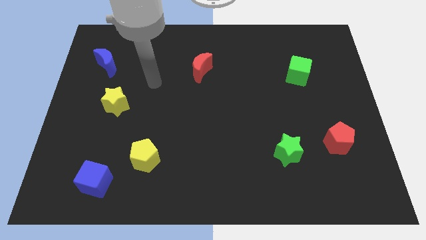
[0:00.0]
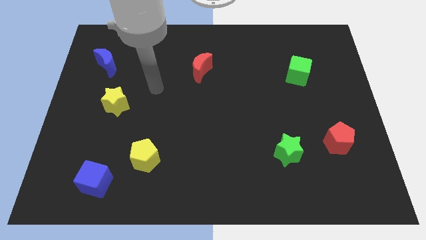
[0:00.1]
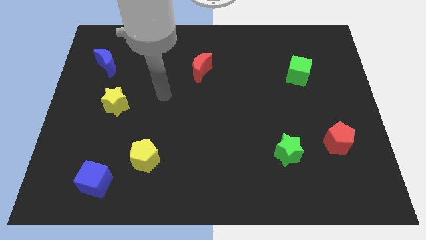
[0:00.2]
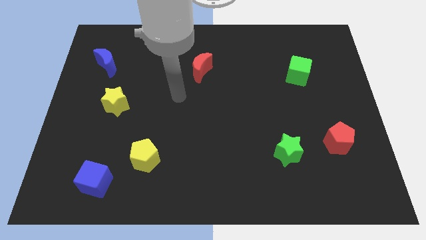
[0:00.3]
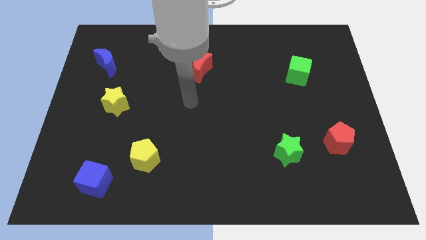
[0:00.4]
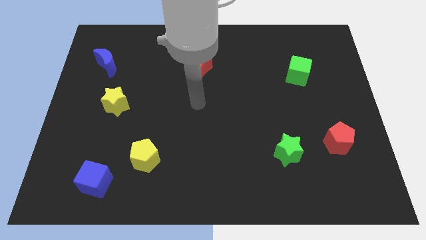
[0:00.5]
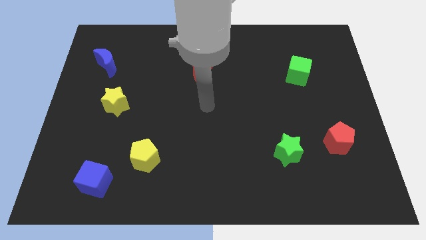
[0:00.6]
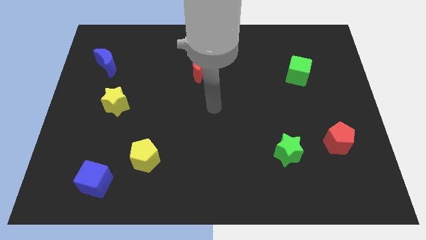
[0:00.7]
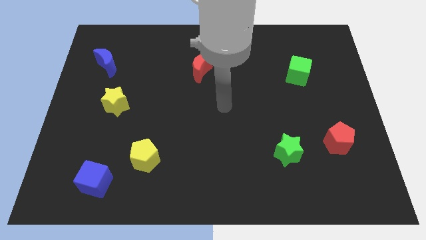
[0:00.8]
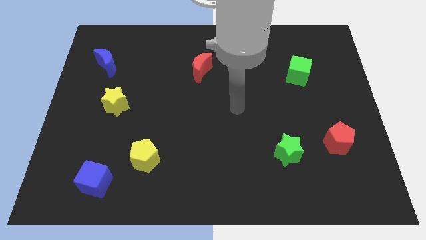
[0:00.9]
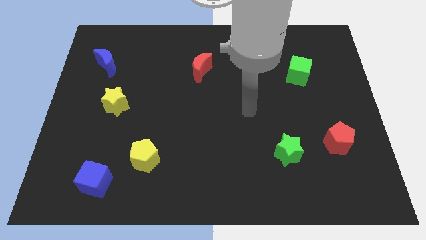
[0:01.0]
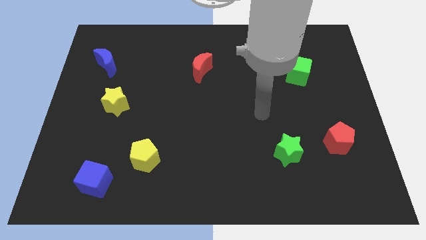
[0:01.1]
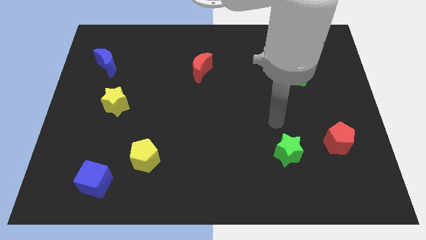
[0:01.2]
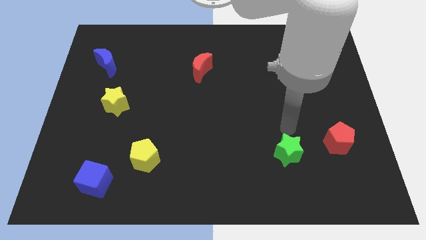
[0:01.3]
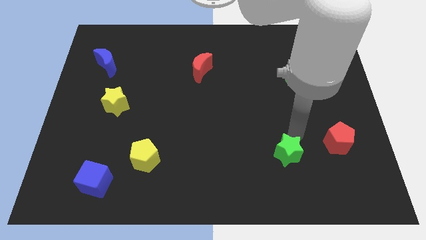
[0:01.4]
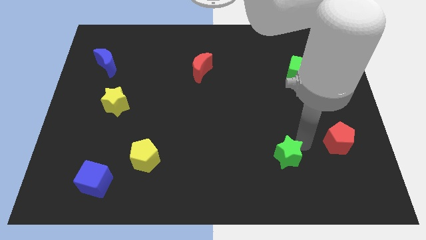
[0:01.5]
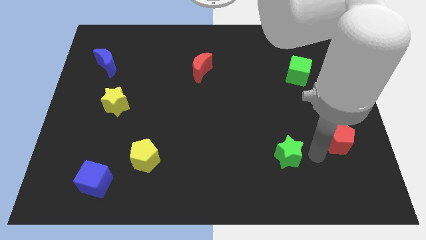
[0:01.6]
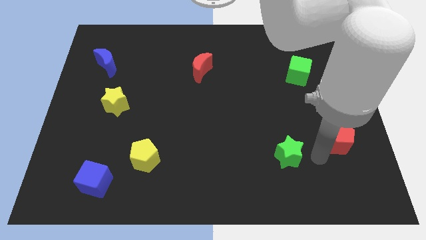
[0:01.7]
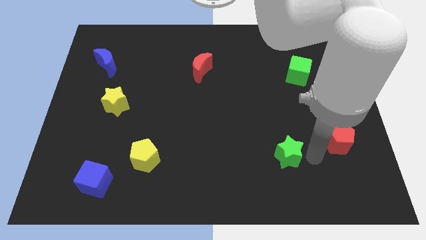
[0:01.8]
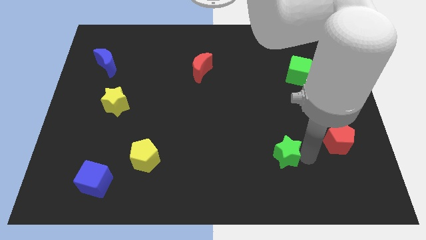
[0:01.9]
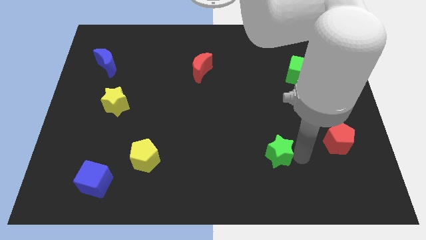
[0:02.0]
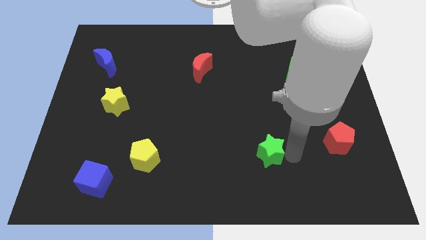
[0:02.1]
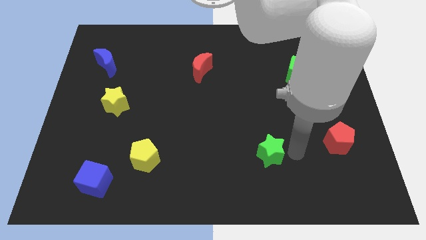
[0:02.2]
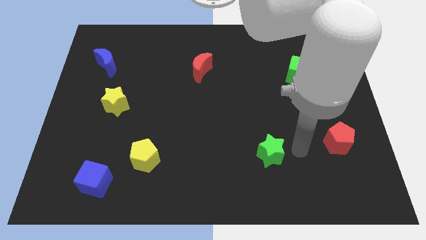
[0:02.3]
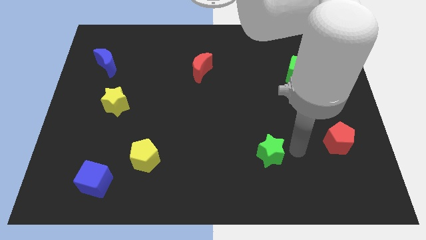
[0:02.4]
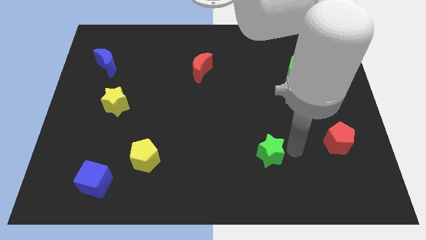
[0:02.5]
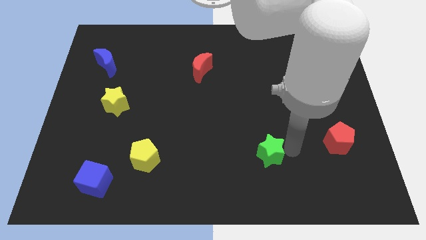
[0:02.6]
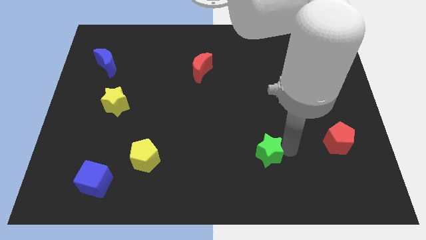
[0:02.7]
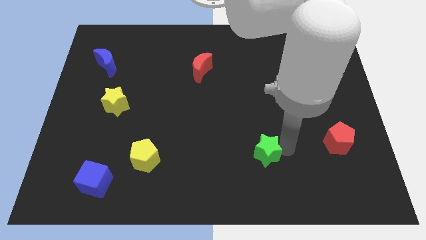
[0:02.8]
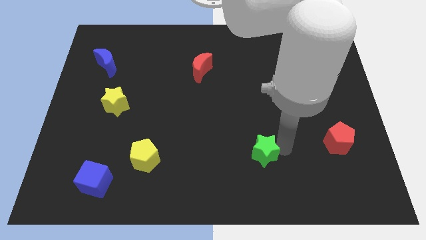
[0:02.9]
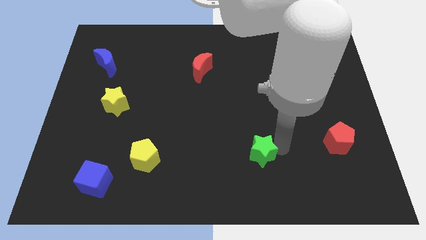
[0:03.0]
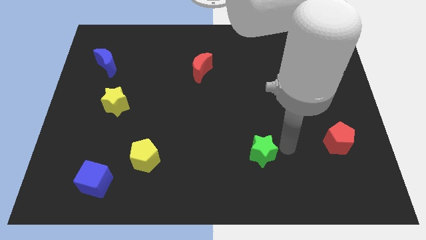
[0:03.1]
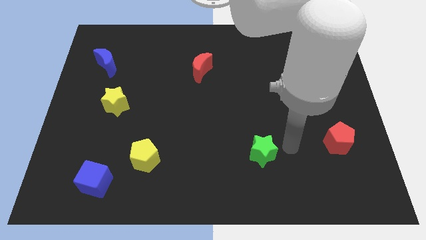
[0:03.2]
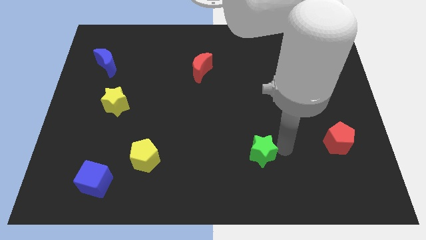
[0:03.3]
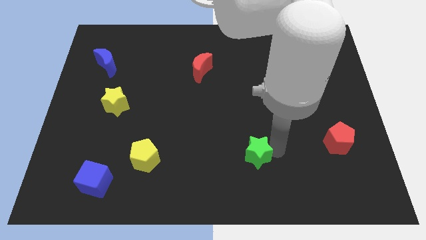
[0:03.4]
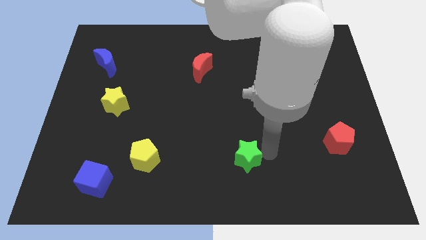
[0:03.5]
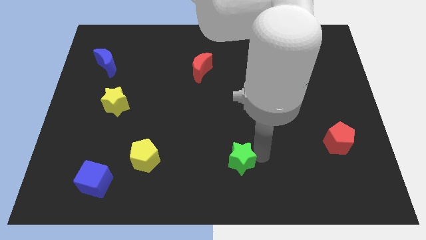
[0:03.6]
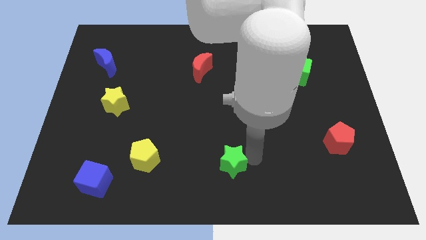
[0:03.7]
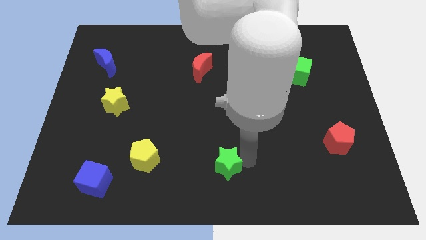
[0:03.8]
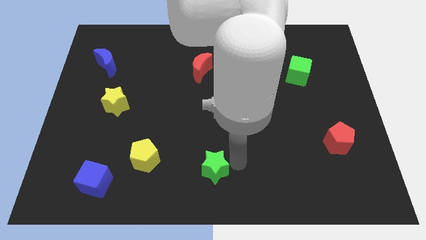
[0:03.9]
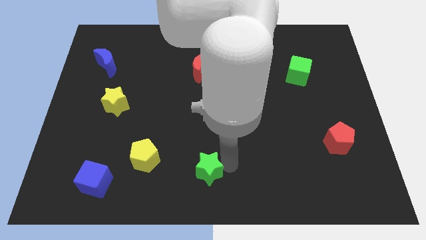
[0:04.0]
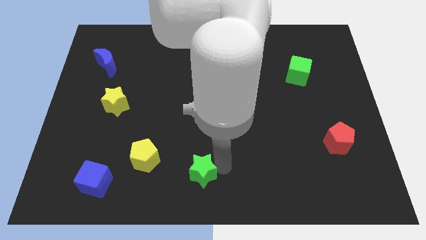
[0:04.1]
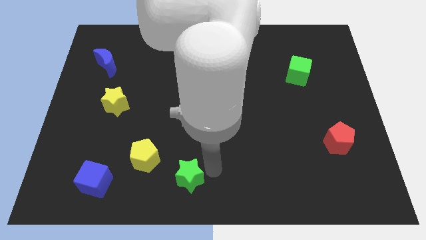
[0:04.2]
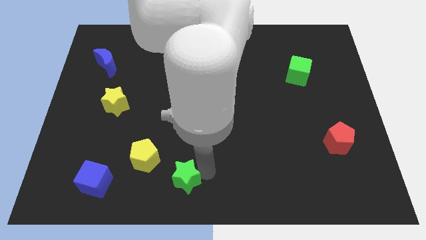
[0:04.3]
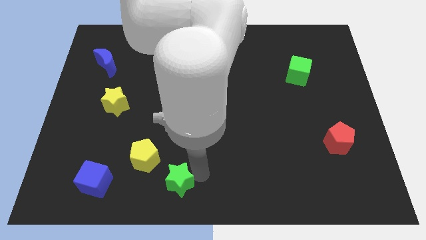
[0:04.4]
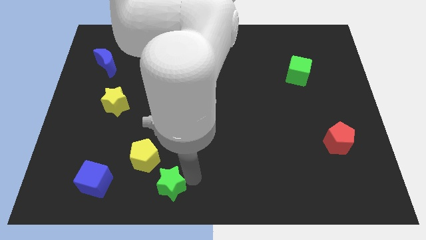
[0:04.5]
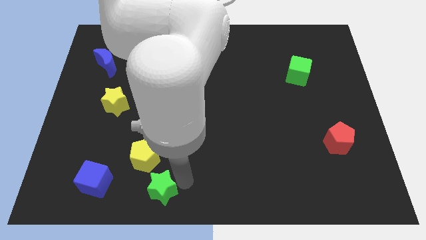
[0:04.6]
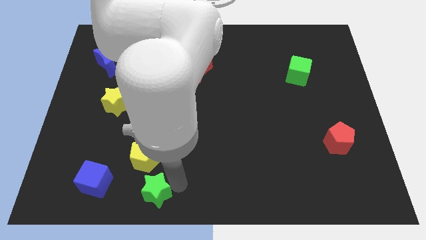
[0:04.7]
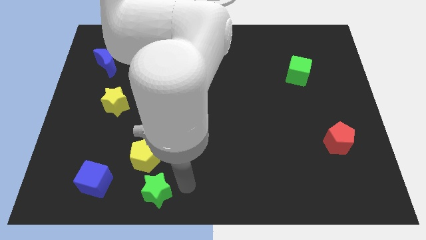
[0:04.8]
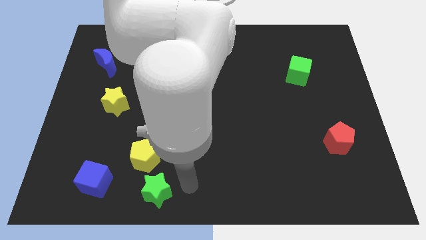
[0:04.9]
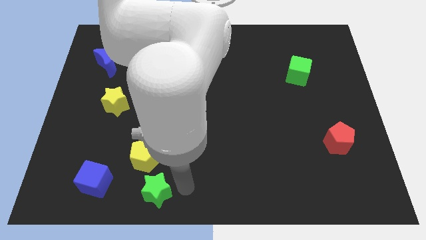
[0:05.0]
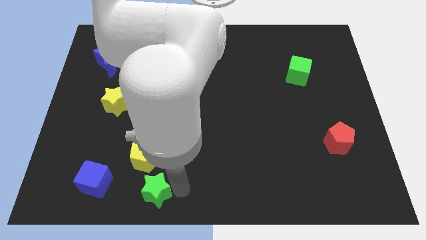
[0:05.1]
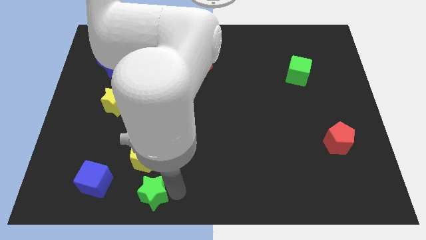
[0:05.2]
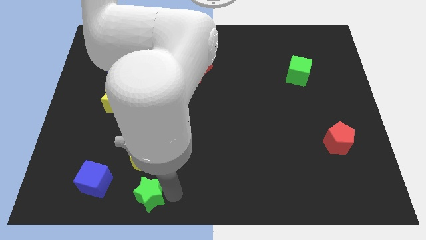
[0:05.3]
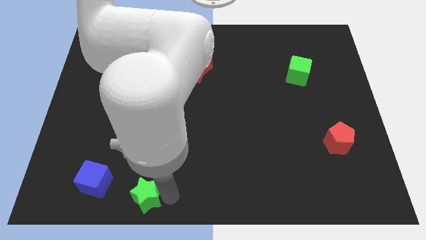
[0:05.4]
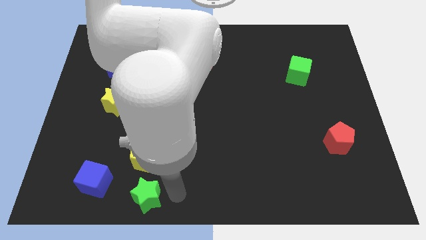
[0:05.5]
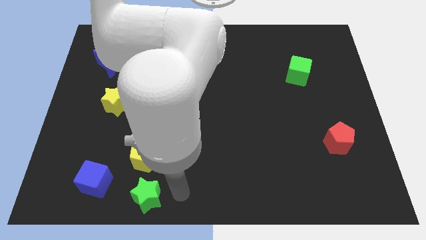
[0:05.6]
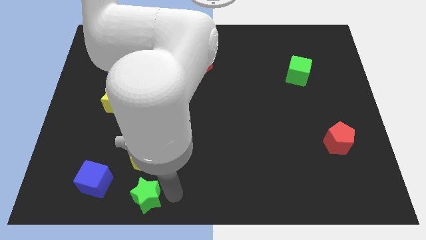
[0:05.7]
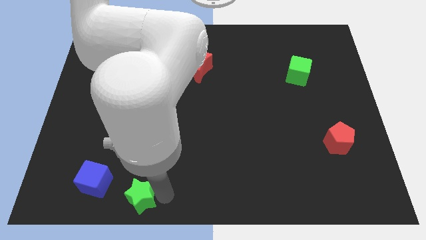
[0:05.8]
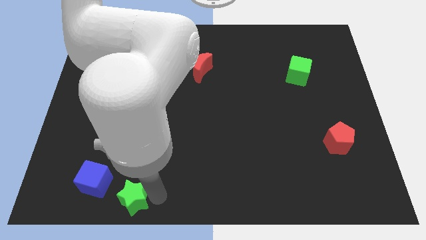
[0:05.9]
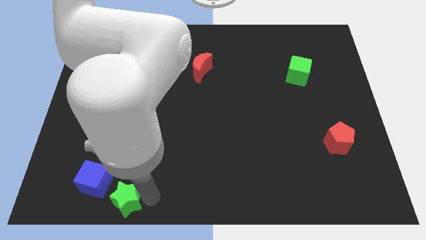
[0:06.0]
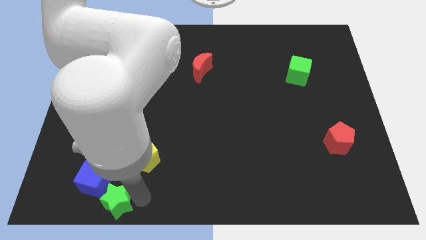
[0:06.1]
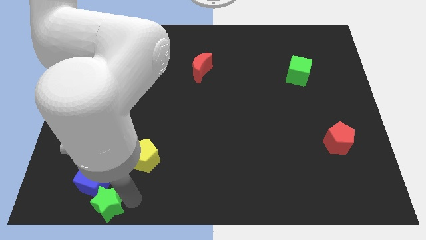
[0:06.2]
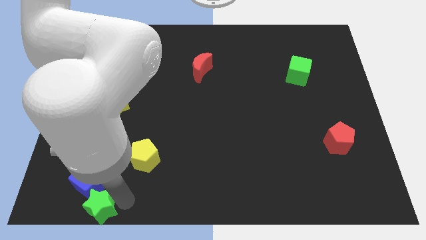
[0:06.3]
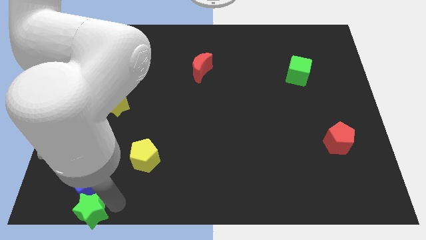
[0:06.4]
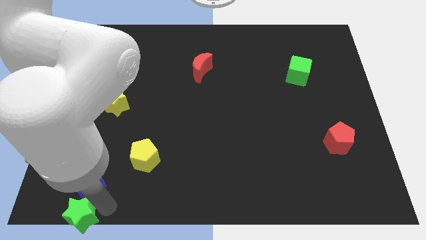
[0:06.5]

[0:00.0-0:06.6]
put the green star to the bottom left corner

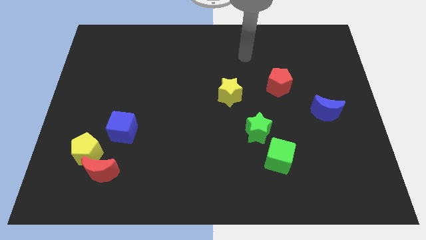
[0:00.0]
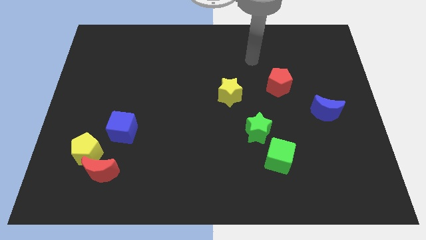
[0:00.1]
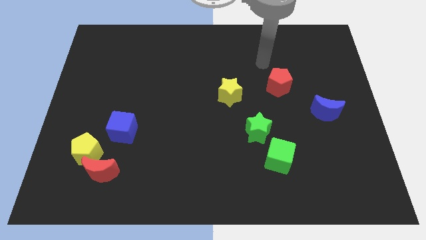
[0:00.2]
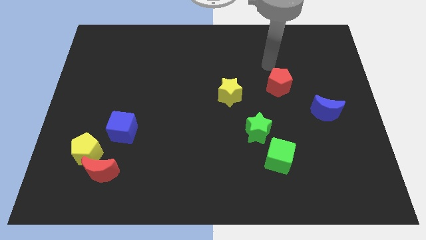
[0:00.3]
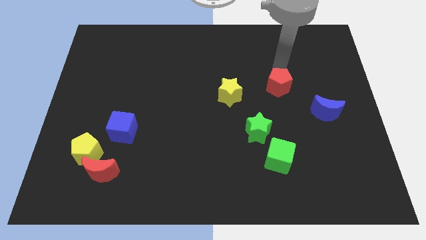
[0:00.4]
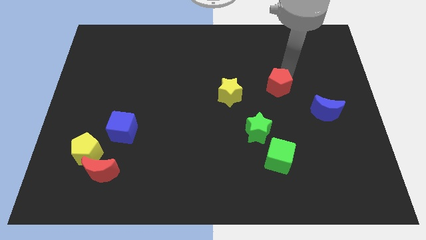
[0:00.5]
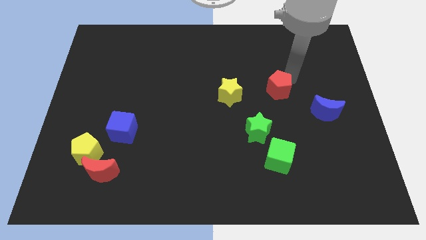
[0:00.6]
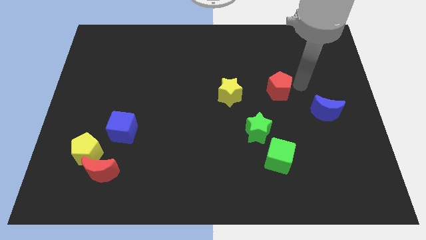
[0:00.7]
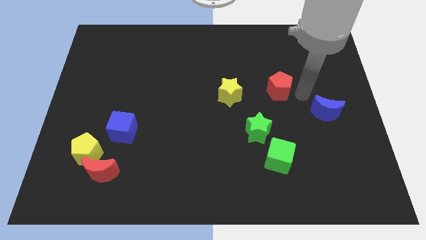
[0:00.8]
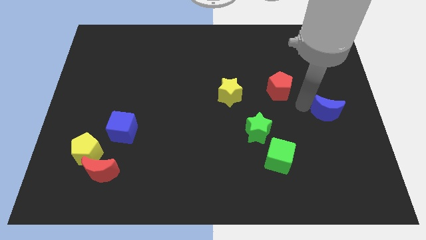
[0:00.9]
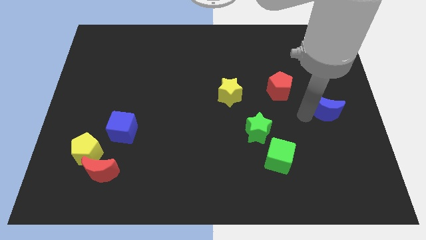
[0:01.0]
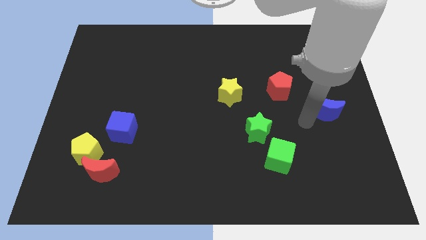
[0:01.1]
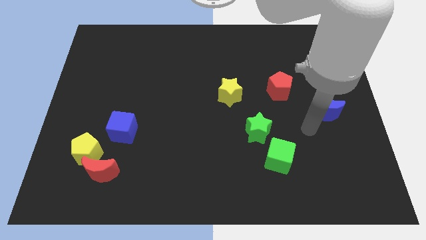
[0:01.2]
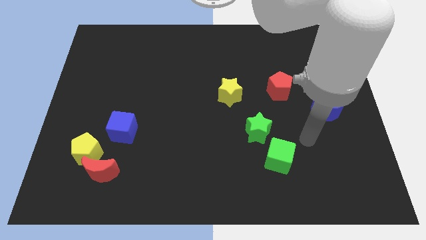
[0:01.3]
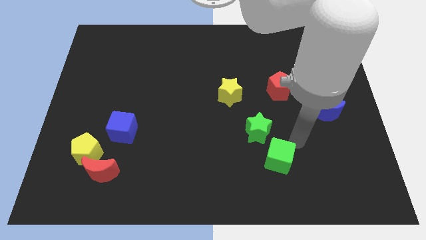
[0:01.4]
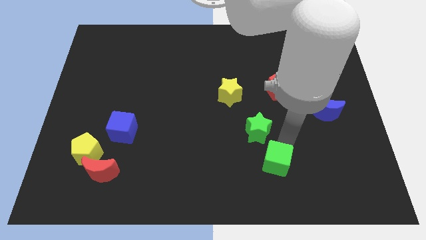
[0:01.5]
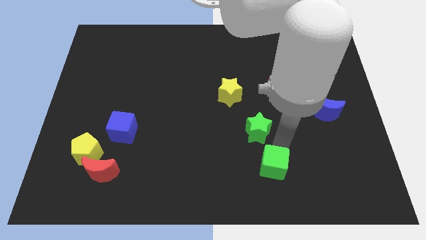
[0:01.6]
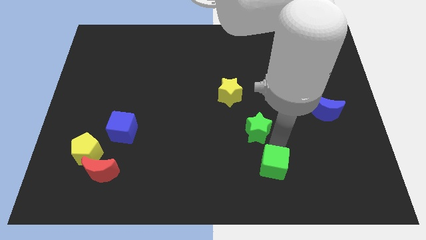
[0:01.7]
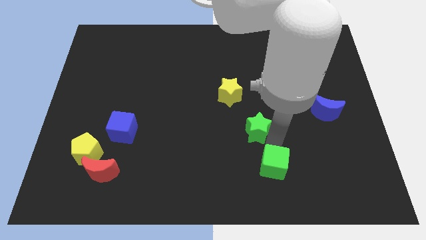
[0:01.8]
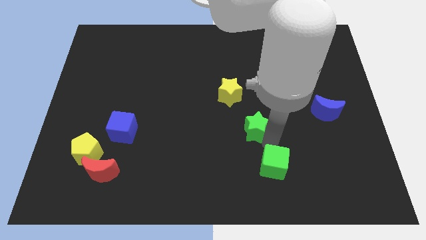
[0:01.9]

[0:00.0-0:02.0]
put the green star to the center of the board
